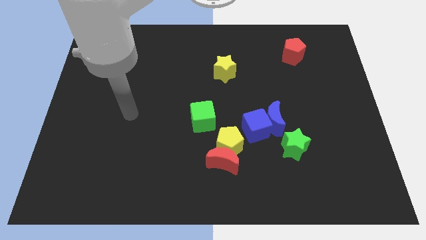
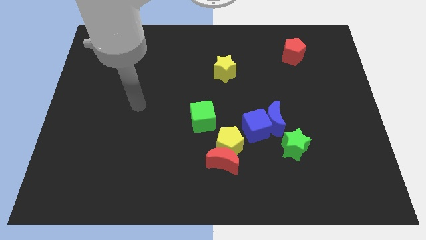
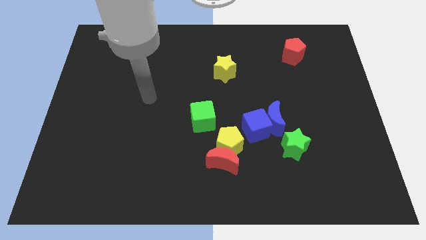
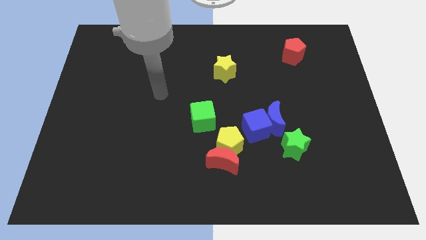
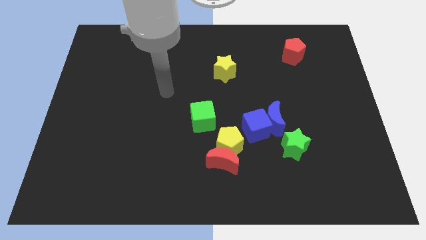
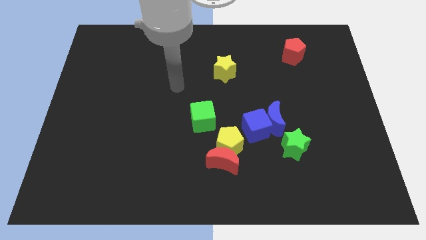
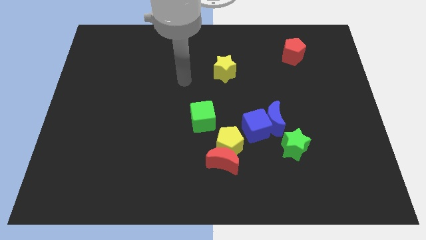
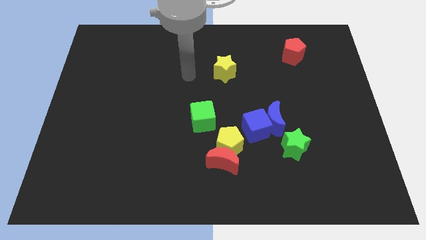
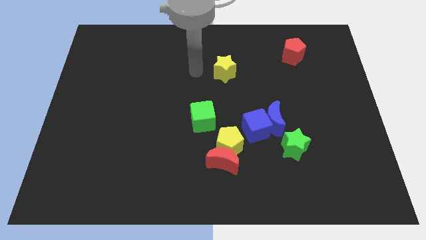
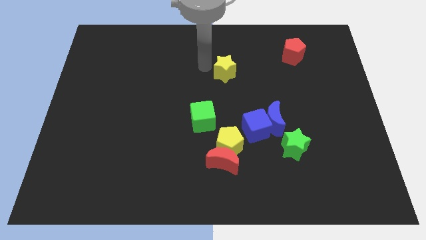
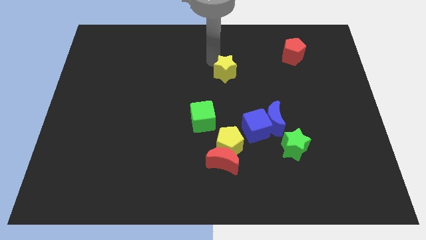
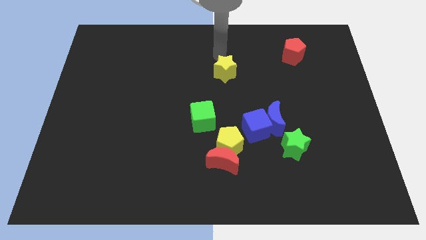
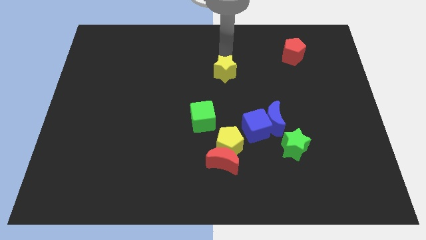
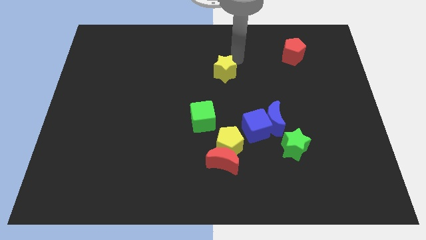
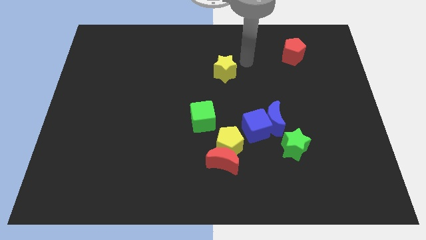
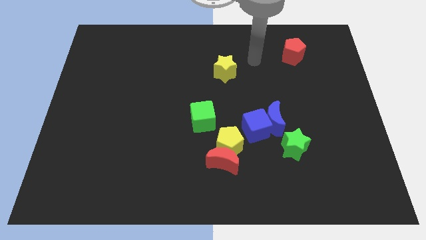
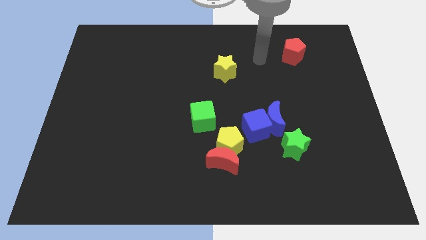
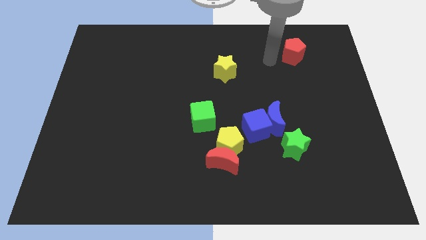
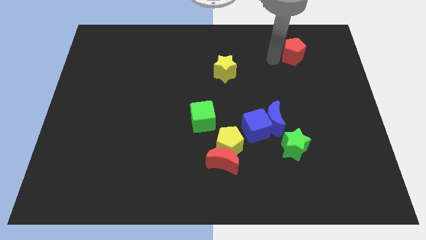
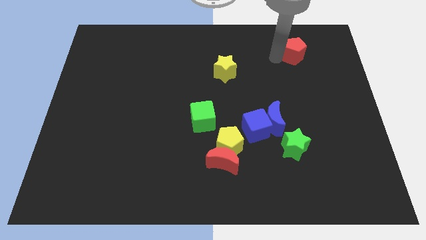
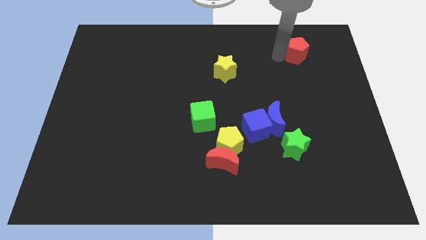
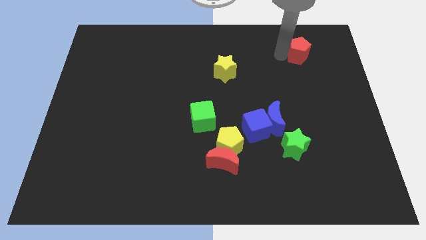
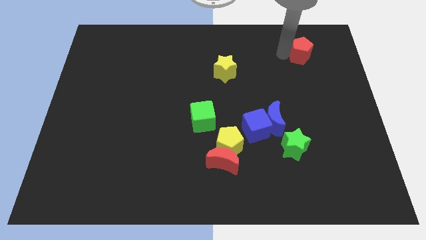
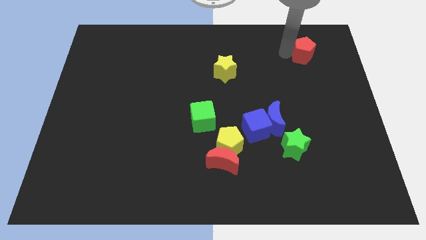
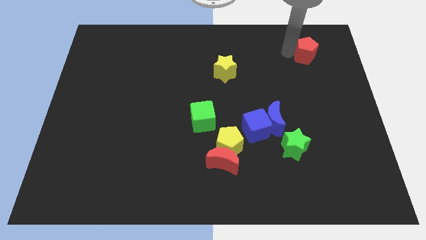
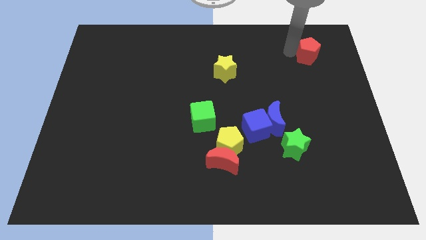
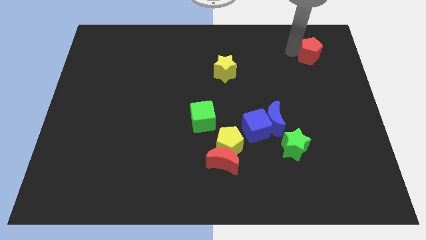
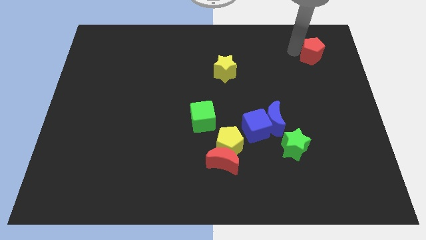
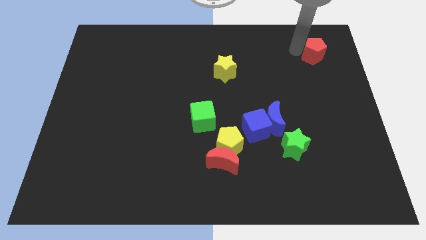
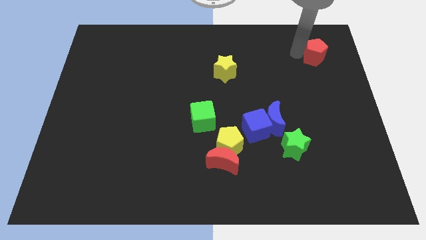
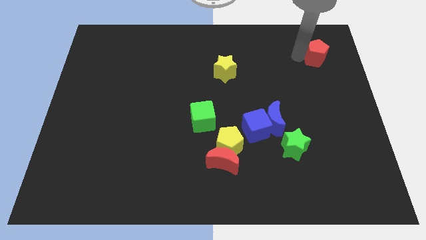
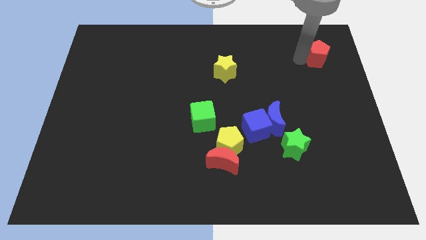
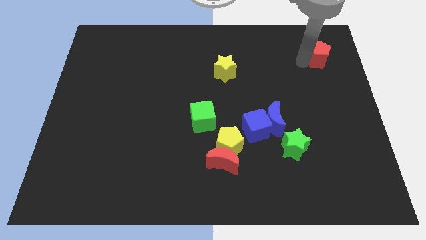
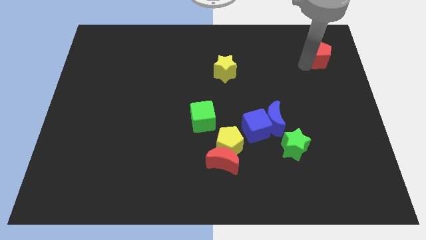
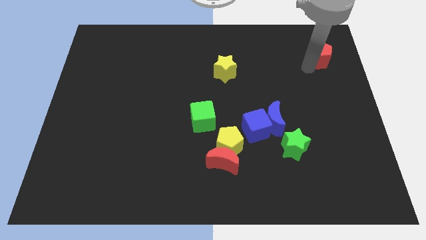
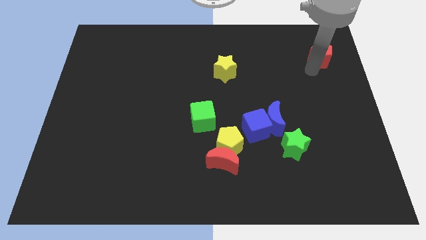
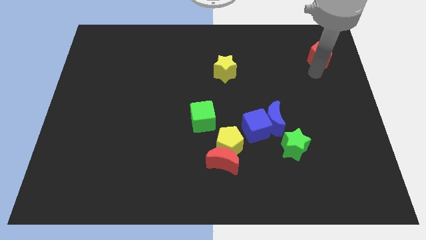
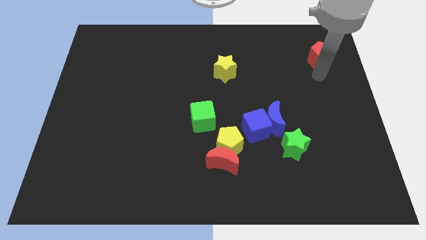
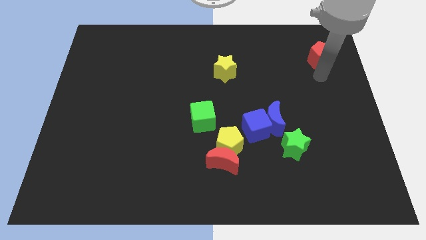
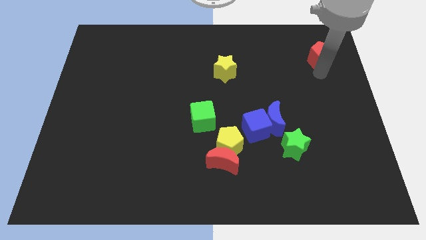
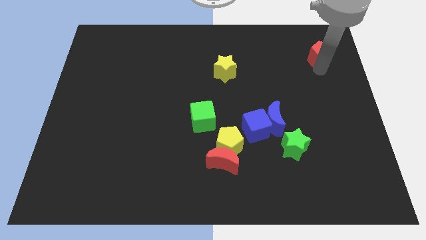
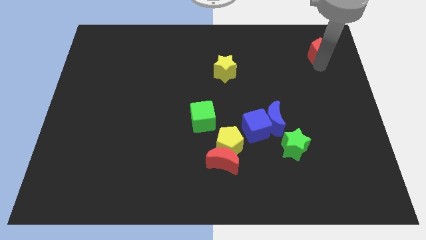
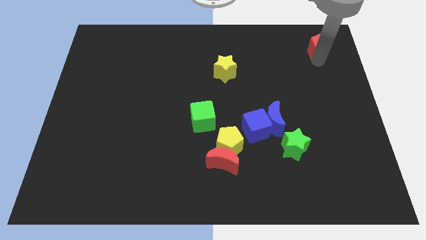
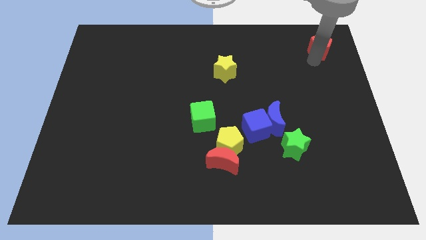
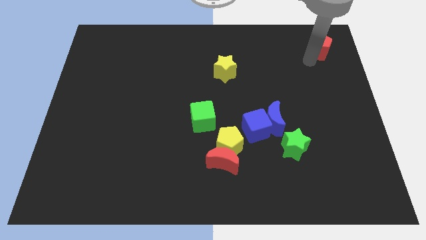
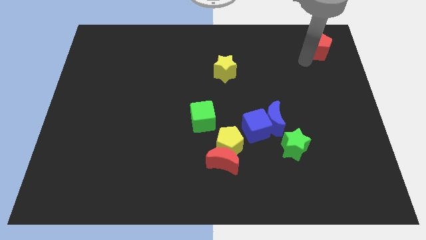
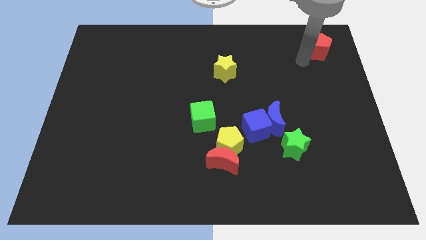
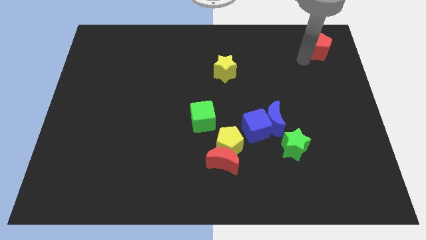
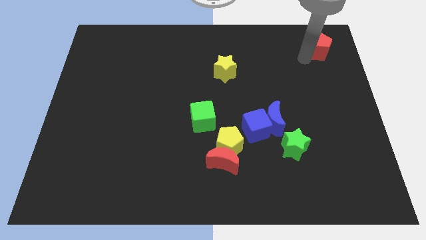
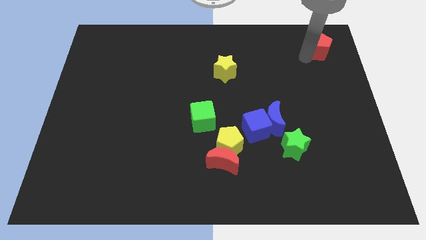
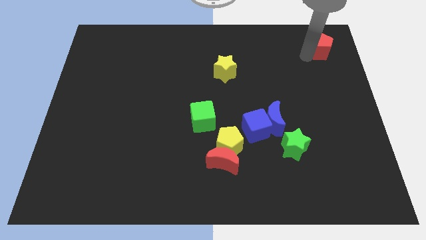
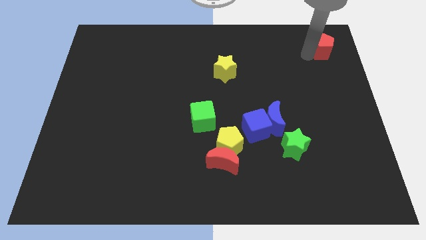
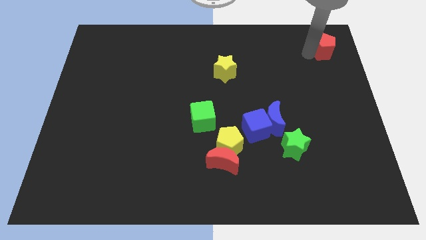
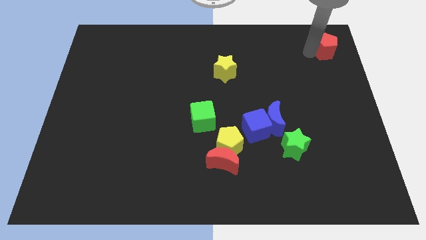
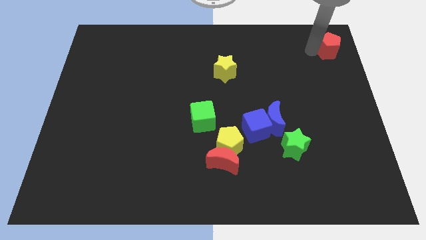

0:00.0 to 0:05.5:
slide the red pentagon to the top right of the board

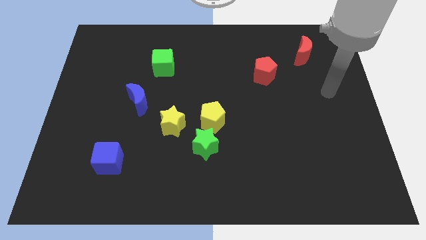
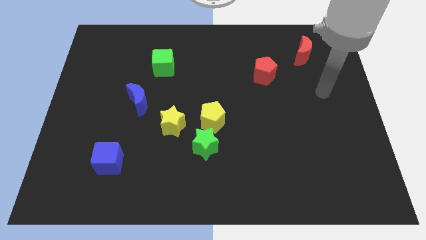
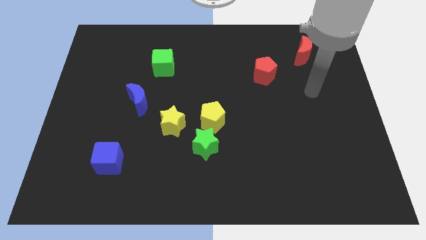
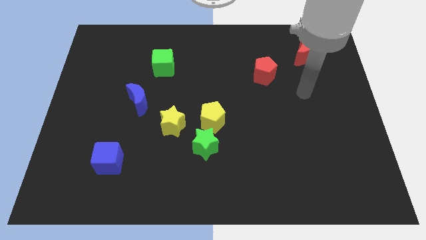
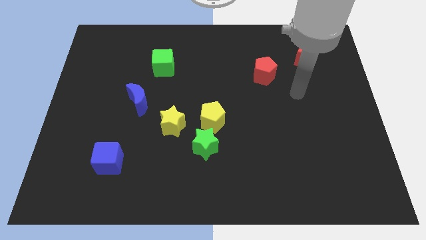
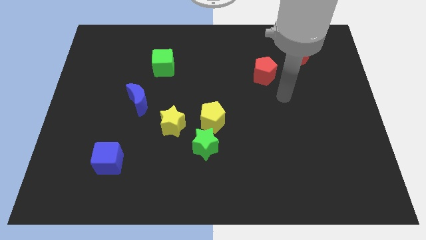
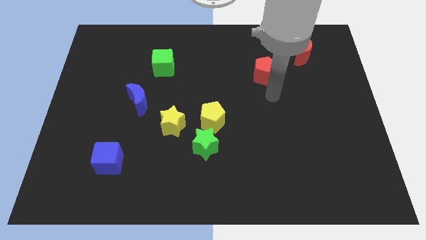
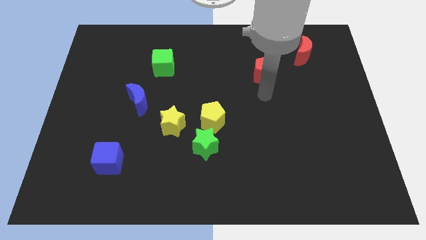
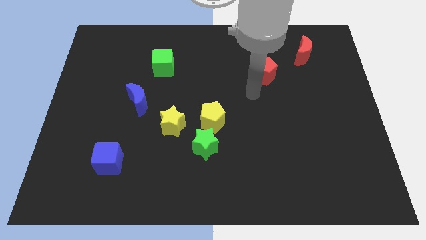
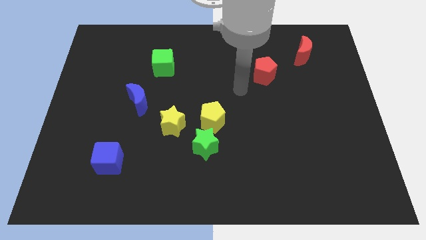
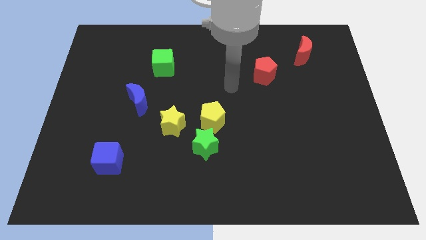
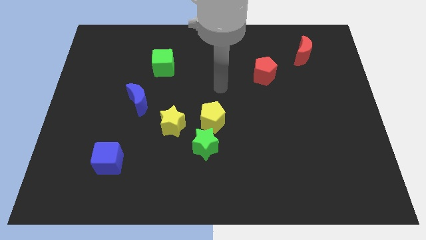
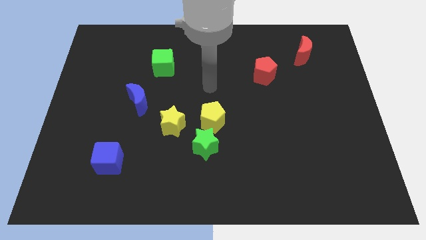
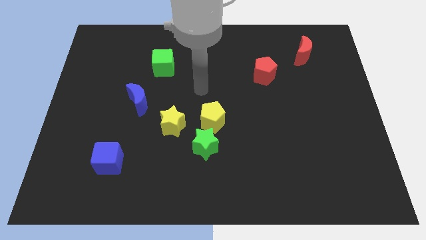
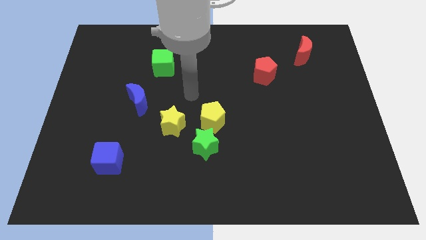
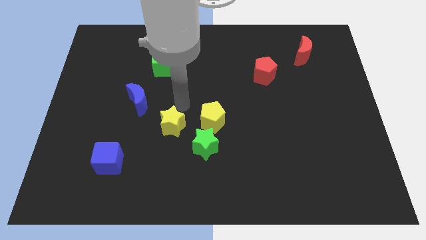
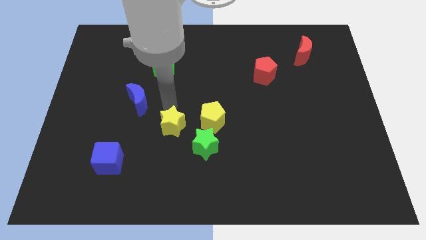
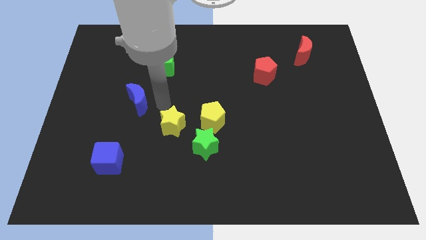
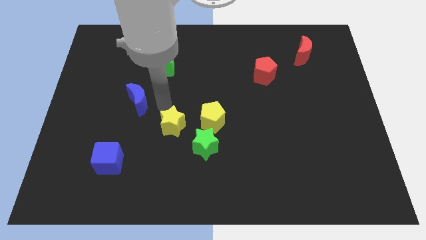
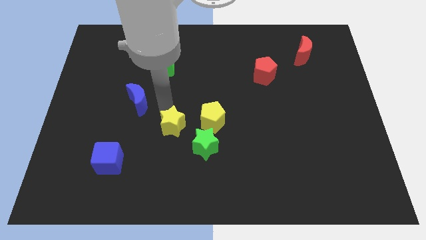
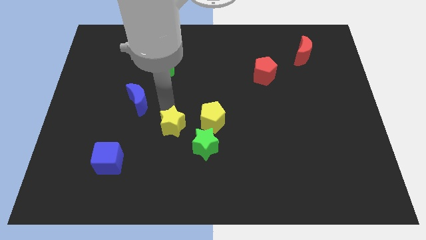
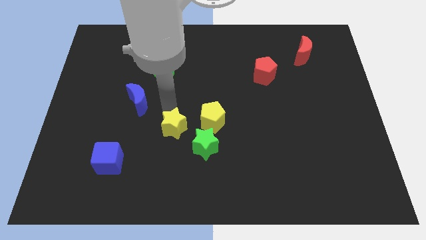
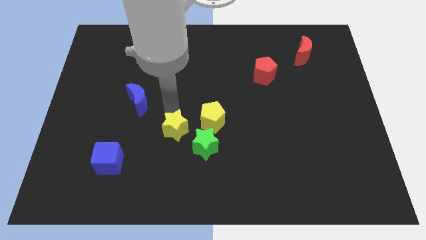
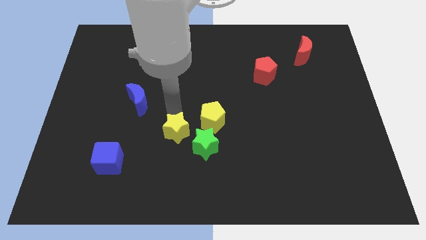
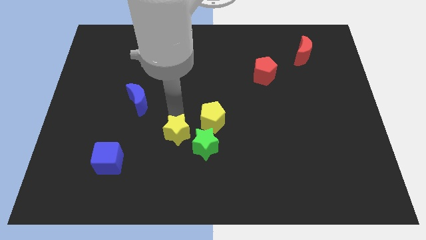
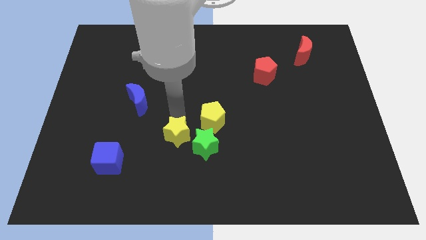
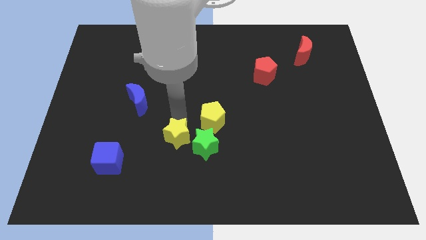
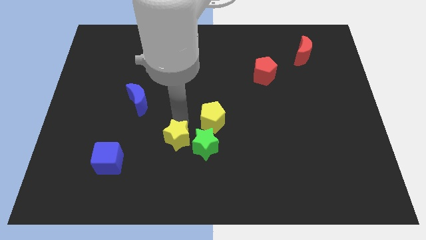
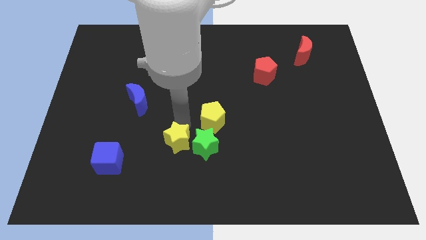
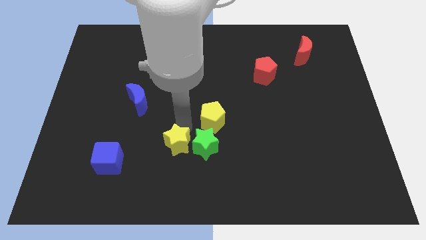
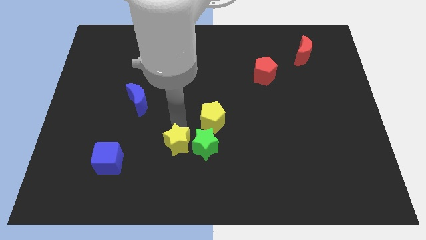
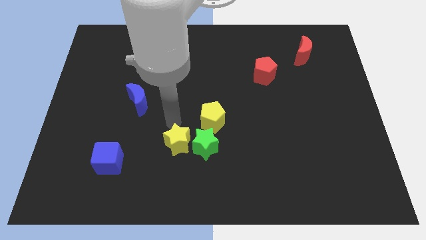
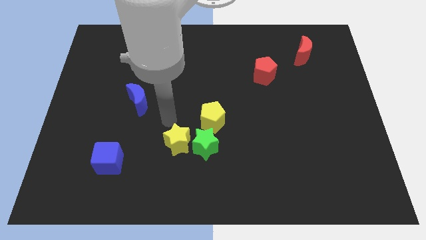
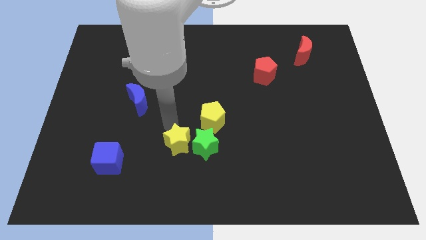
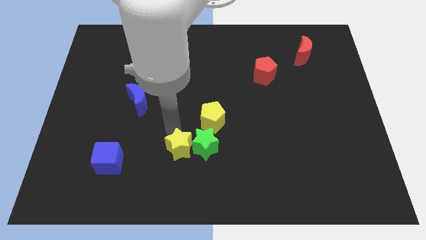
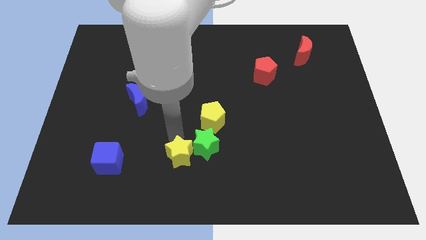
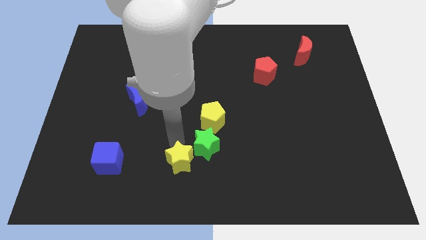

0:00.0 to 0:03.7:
push the yellow star to the bottom side
